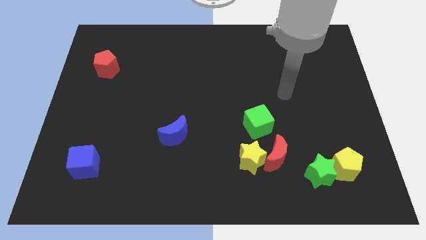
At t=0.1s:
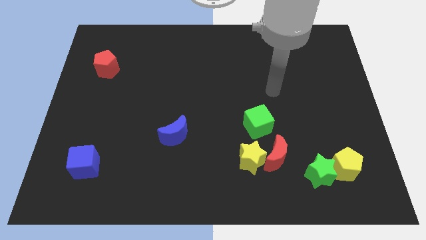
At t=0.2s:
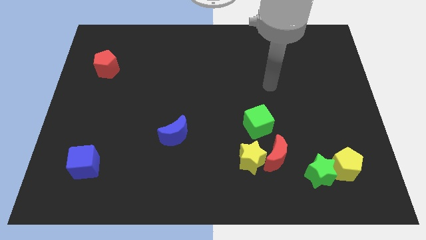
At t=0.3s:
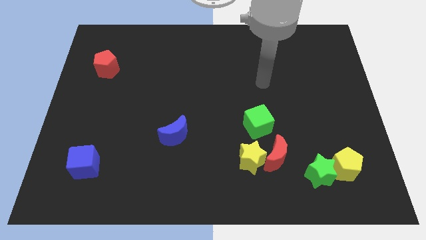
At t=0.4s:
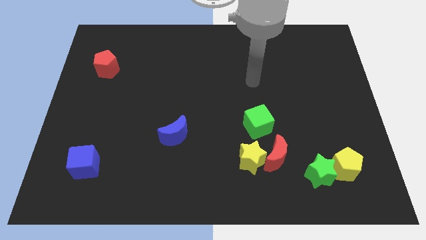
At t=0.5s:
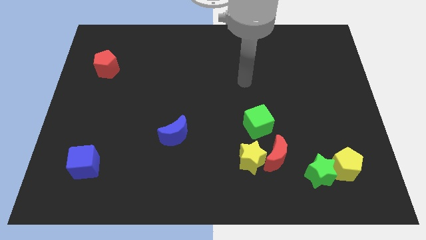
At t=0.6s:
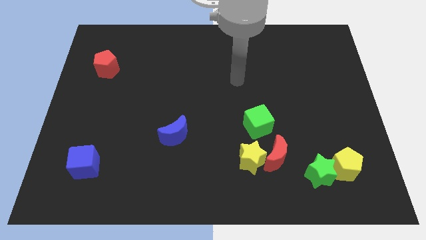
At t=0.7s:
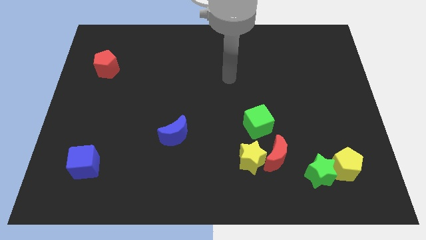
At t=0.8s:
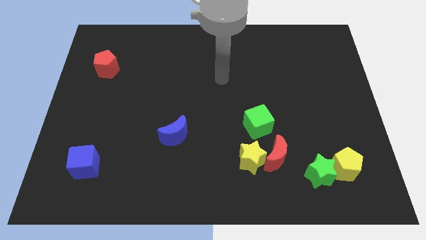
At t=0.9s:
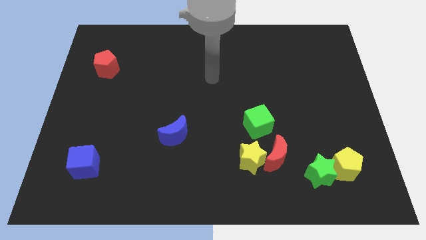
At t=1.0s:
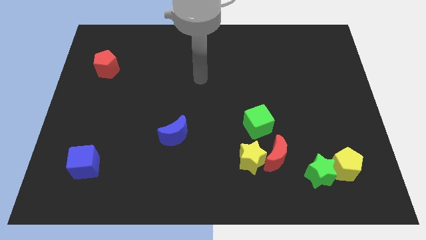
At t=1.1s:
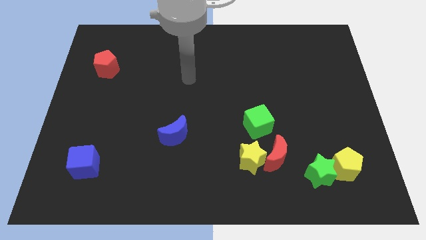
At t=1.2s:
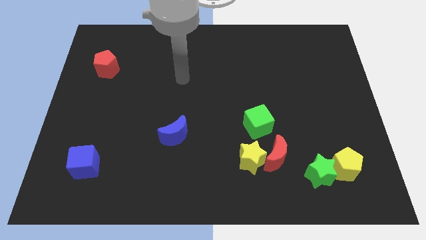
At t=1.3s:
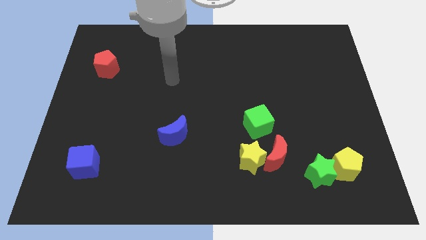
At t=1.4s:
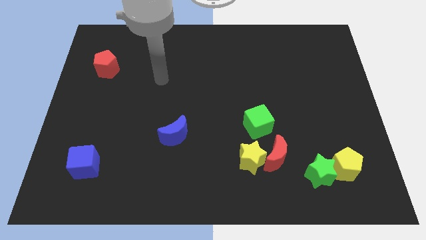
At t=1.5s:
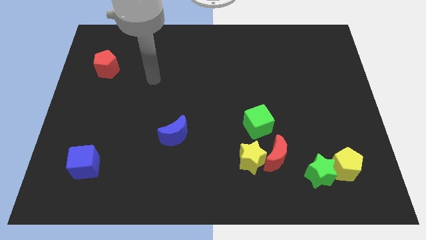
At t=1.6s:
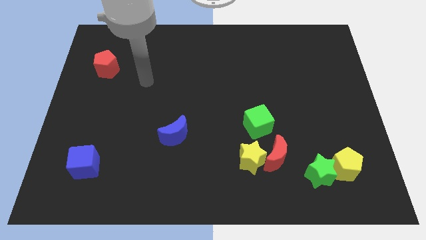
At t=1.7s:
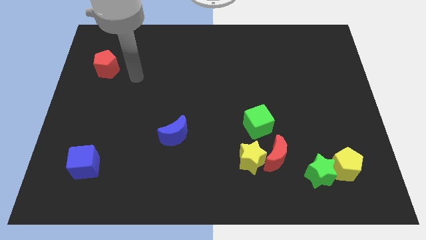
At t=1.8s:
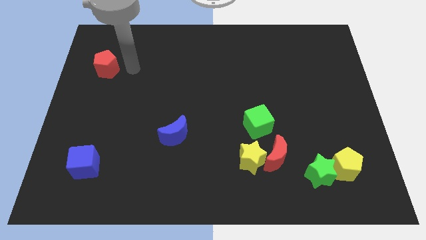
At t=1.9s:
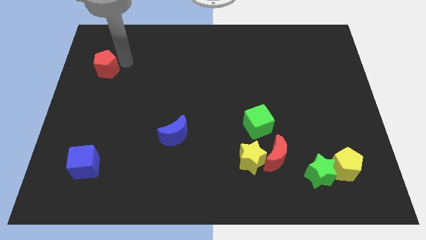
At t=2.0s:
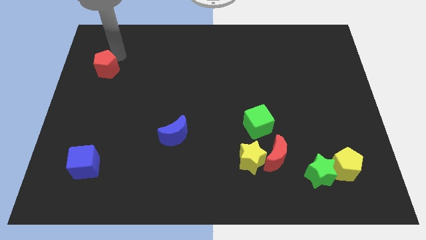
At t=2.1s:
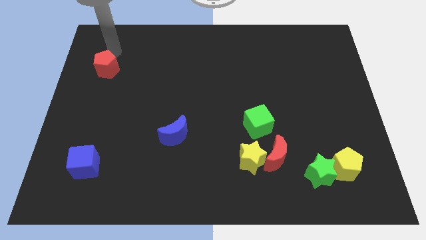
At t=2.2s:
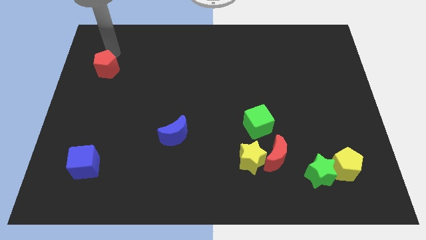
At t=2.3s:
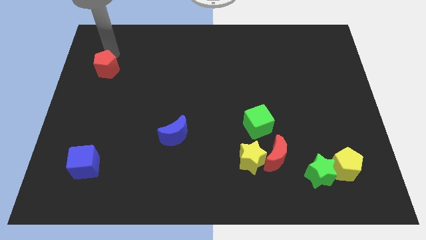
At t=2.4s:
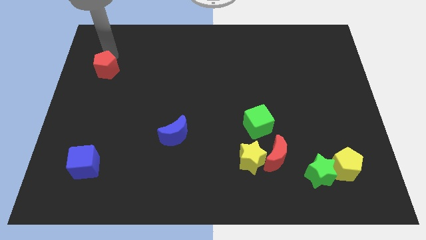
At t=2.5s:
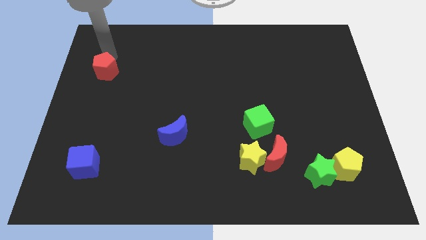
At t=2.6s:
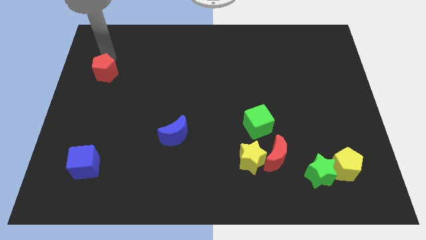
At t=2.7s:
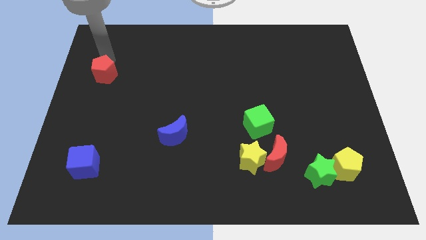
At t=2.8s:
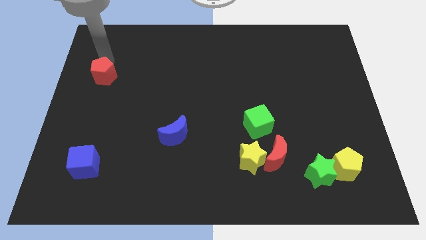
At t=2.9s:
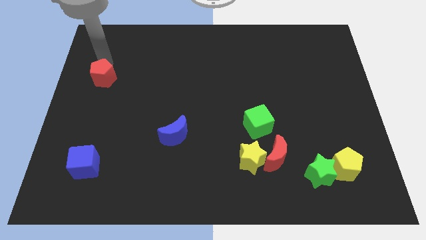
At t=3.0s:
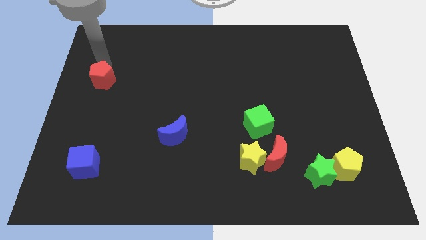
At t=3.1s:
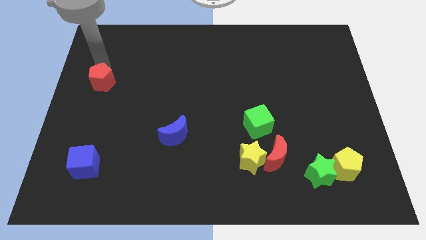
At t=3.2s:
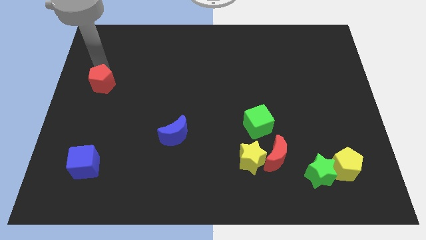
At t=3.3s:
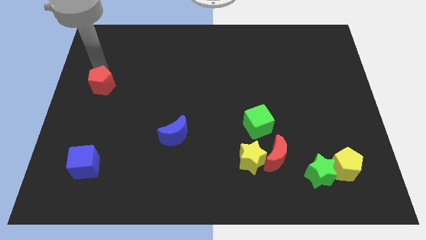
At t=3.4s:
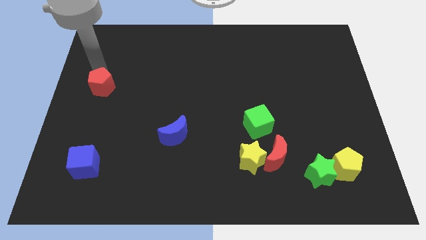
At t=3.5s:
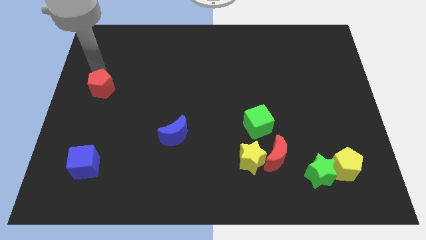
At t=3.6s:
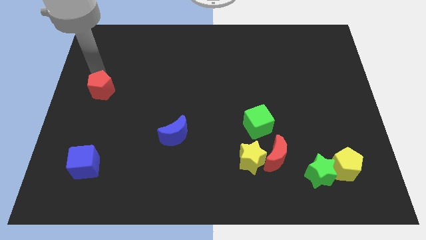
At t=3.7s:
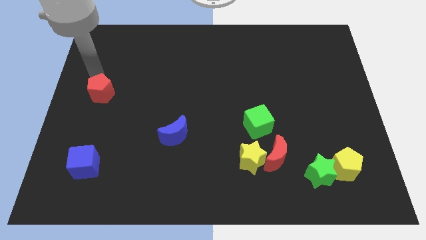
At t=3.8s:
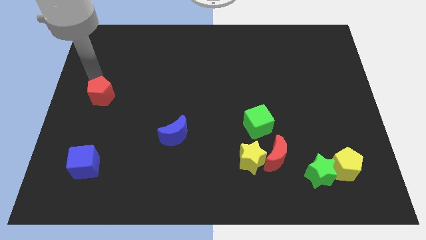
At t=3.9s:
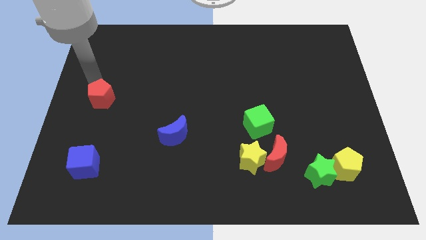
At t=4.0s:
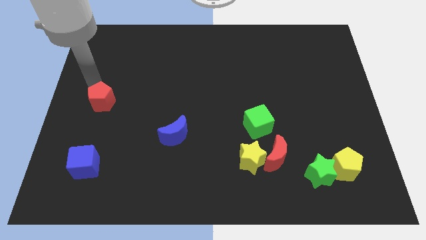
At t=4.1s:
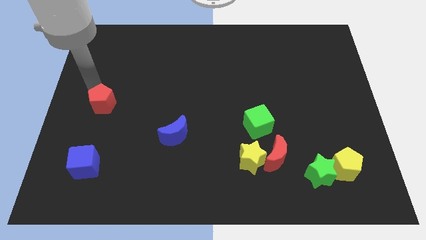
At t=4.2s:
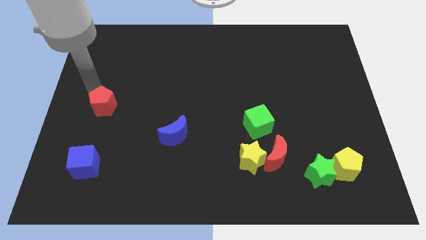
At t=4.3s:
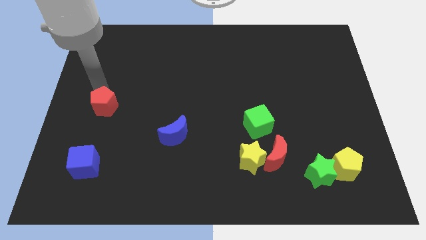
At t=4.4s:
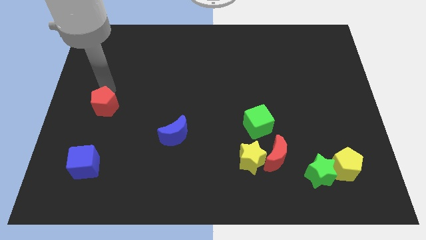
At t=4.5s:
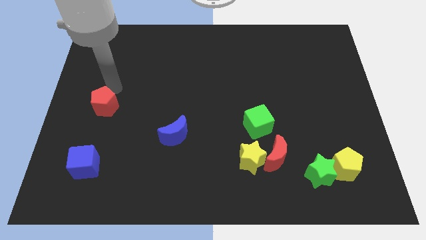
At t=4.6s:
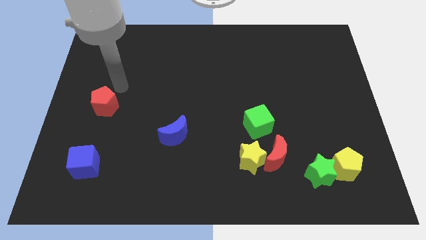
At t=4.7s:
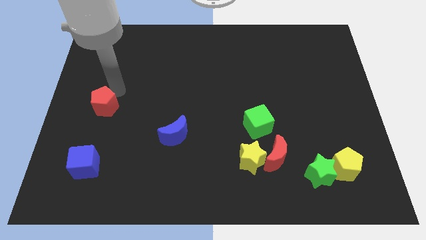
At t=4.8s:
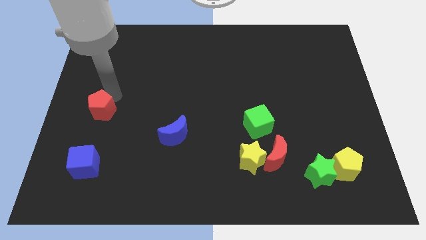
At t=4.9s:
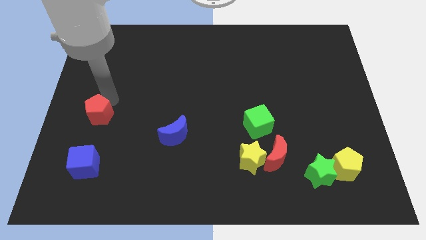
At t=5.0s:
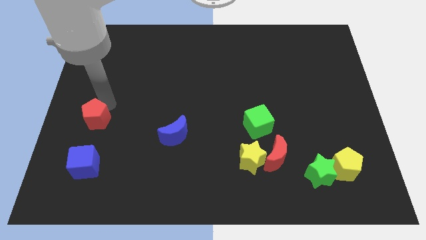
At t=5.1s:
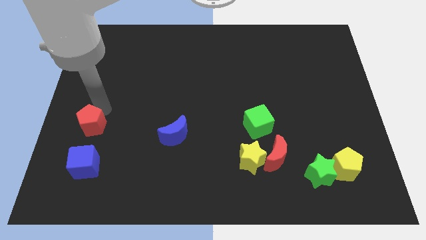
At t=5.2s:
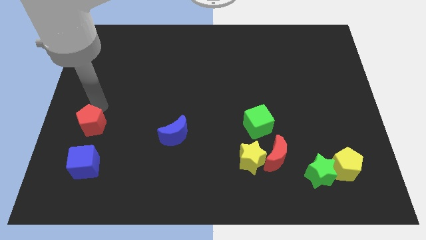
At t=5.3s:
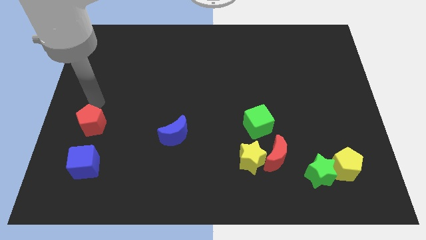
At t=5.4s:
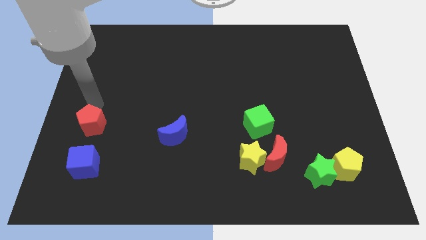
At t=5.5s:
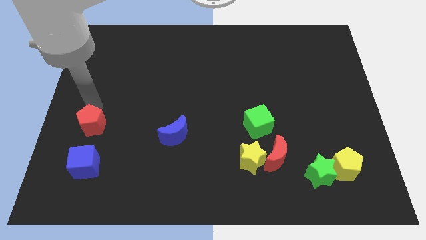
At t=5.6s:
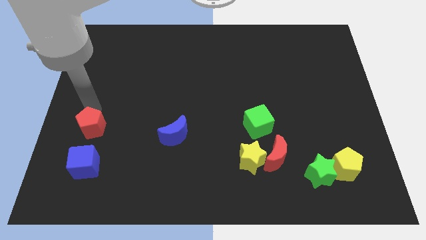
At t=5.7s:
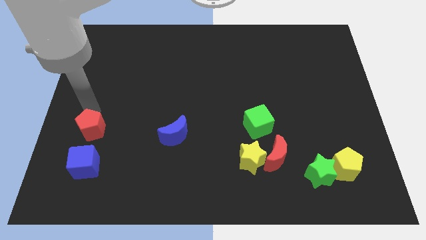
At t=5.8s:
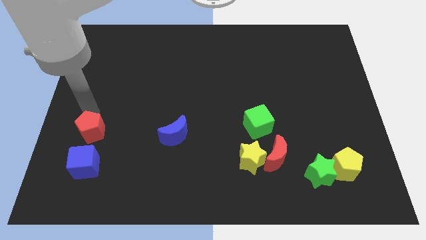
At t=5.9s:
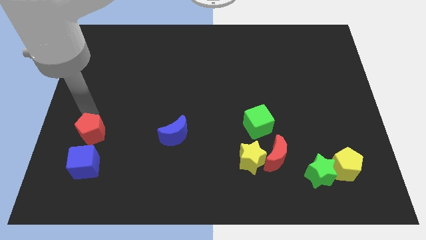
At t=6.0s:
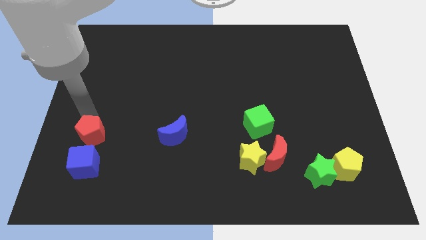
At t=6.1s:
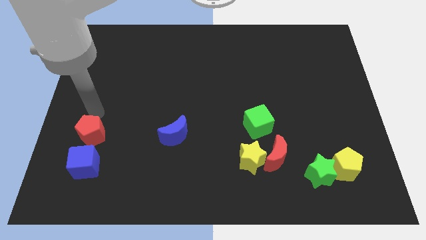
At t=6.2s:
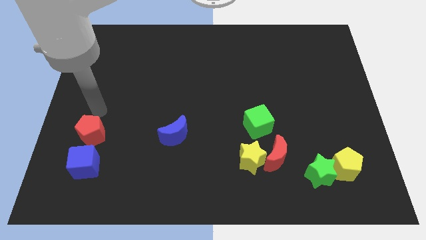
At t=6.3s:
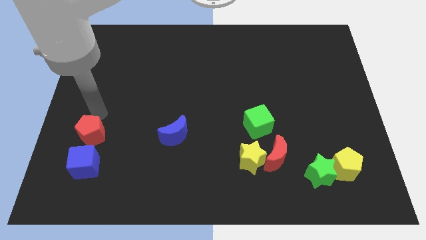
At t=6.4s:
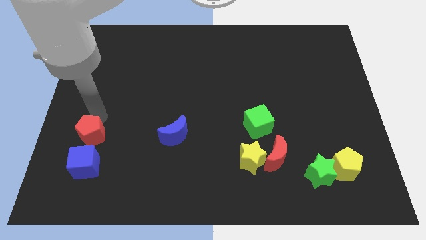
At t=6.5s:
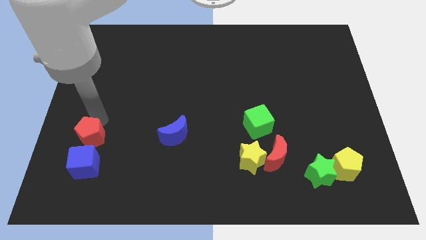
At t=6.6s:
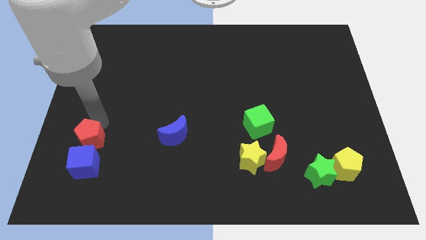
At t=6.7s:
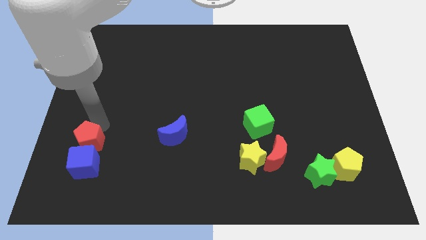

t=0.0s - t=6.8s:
put the red pentagon close to the blue cube
